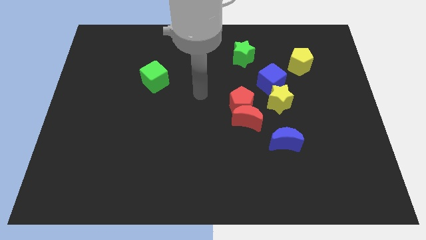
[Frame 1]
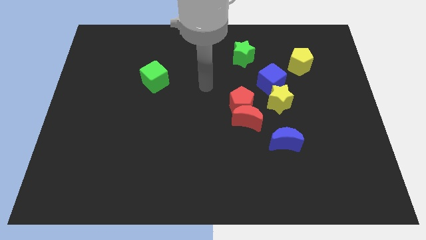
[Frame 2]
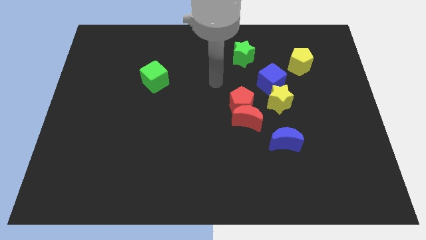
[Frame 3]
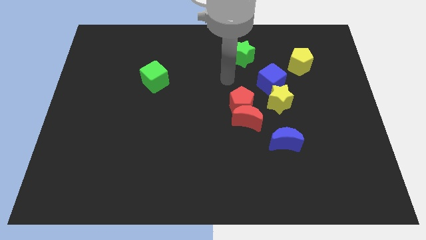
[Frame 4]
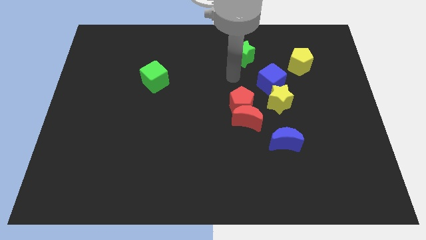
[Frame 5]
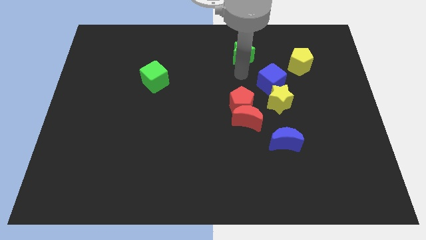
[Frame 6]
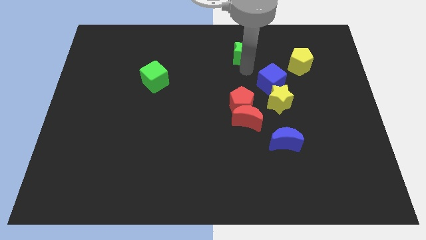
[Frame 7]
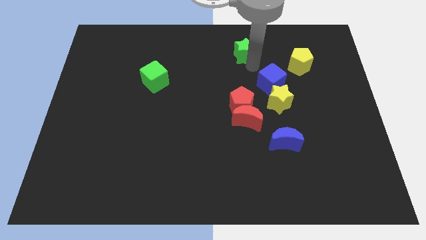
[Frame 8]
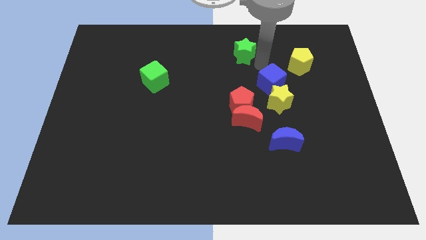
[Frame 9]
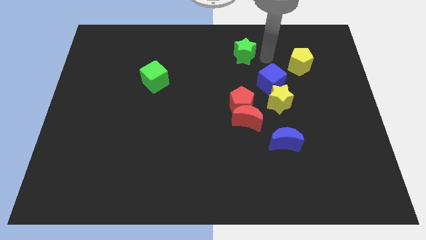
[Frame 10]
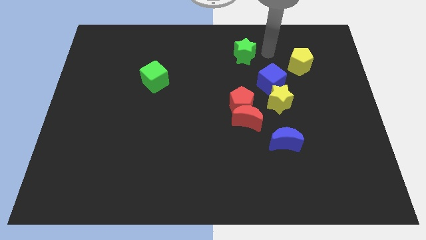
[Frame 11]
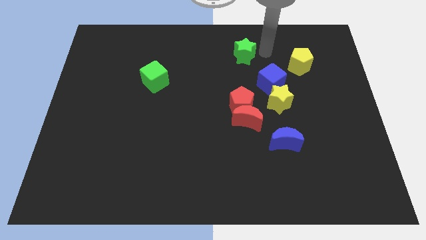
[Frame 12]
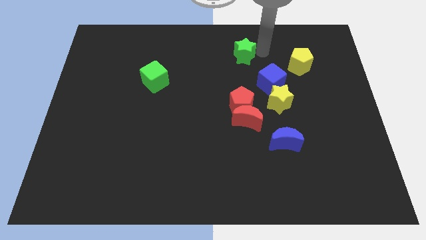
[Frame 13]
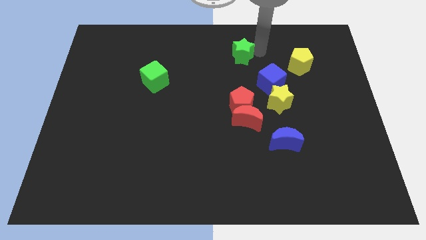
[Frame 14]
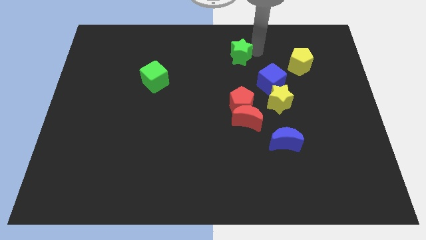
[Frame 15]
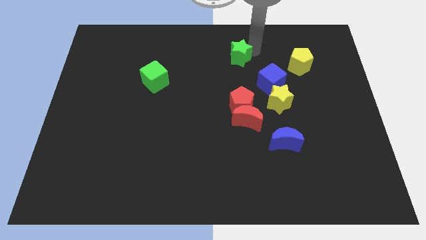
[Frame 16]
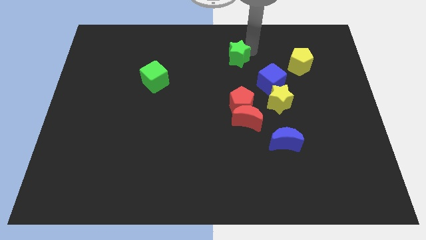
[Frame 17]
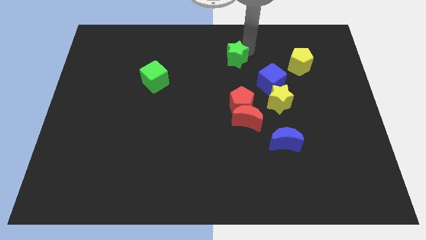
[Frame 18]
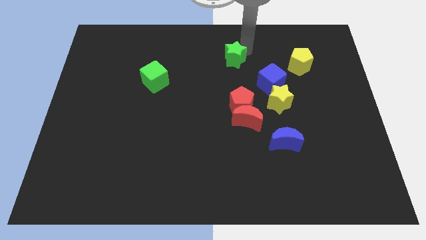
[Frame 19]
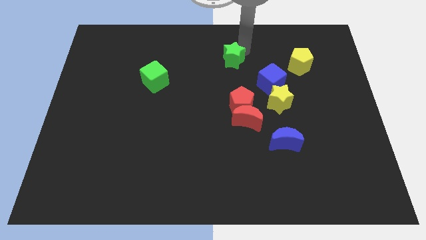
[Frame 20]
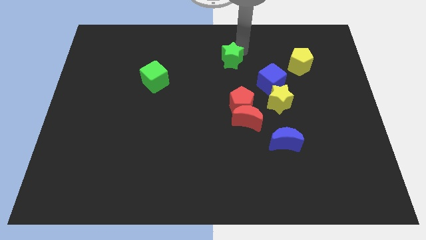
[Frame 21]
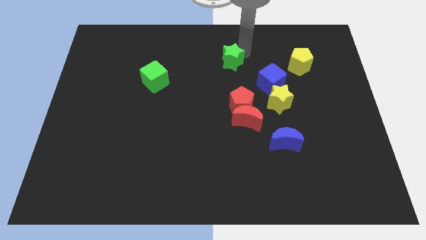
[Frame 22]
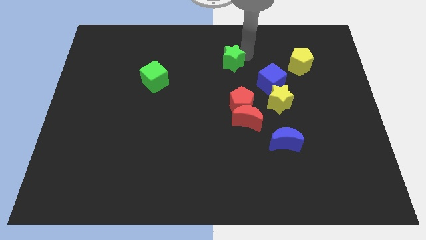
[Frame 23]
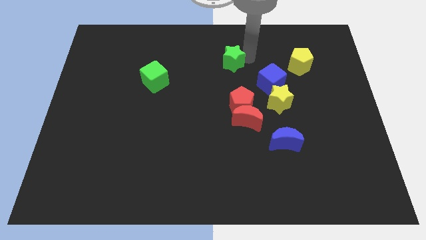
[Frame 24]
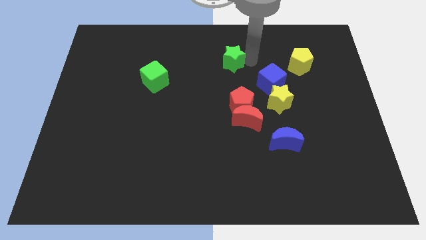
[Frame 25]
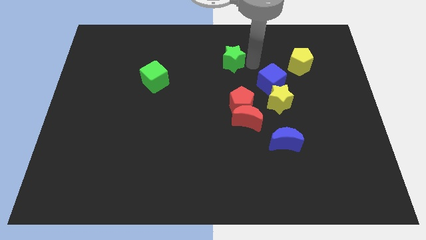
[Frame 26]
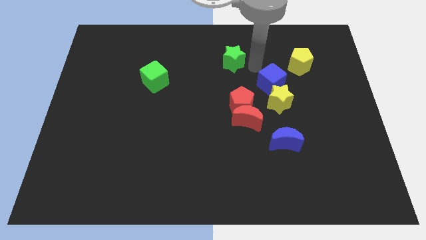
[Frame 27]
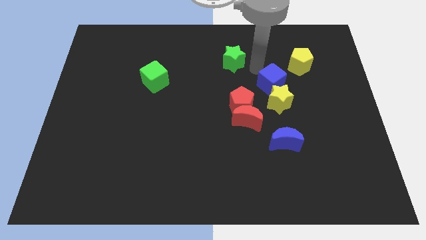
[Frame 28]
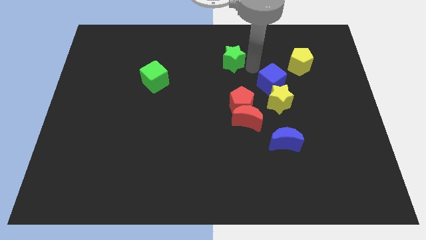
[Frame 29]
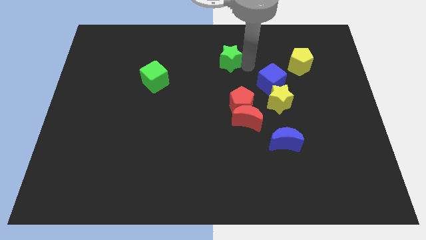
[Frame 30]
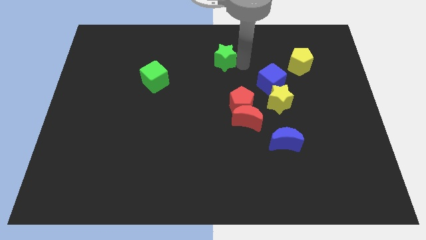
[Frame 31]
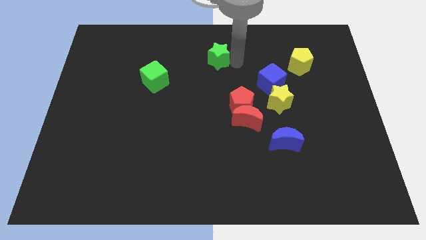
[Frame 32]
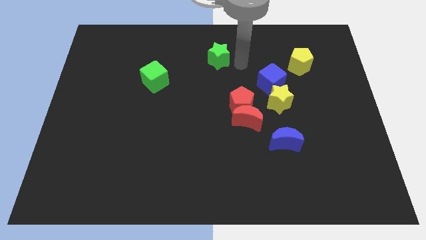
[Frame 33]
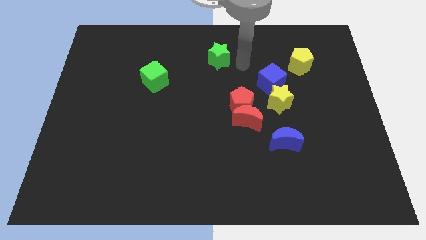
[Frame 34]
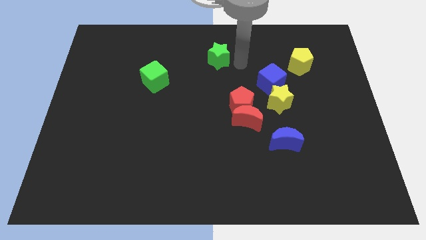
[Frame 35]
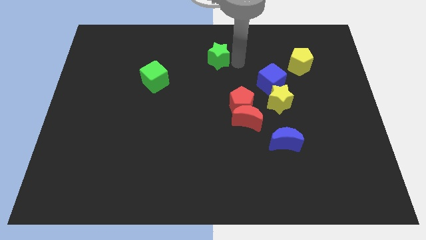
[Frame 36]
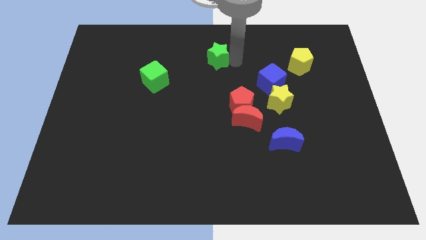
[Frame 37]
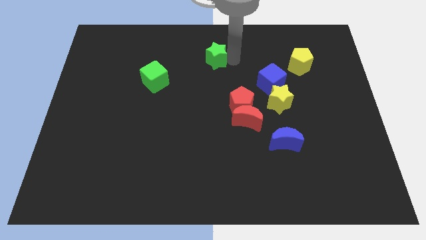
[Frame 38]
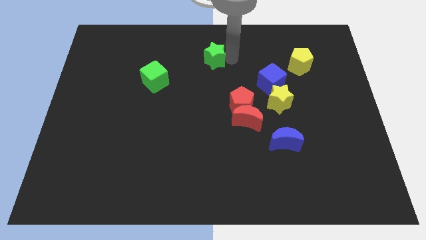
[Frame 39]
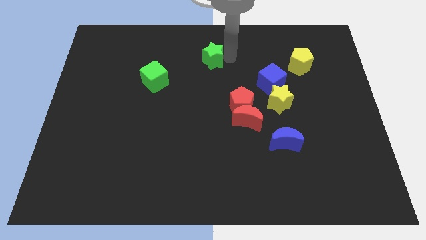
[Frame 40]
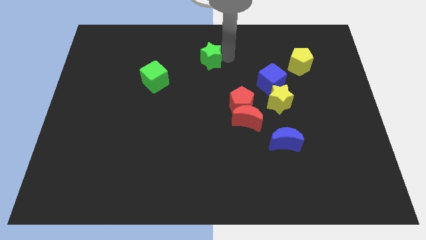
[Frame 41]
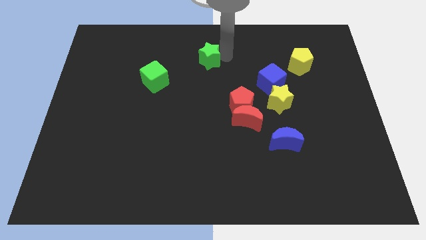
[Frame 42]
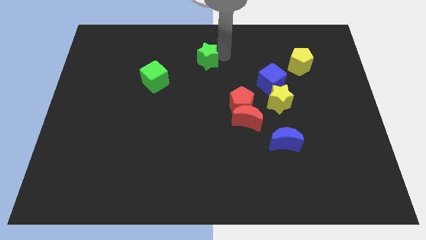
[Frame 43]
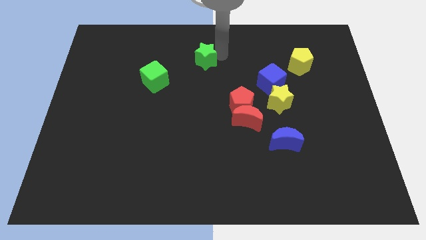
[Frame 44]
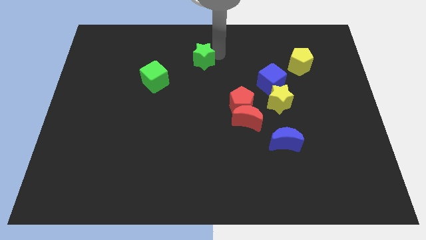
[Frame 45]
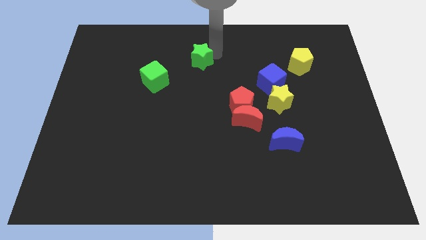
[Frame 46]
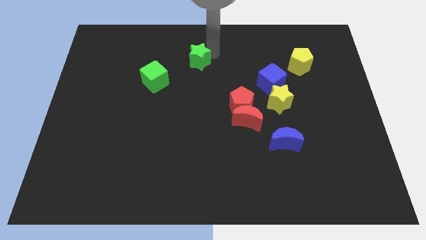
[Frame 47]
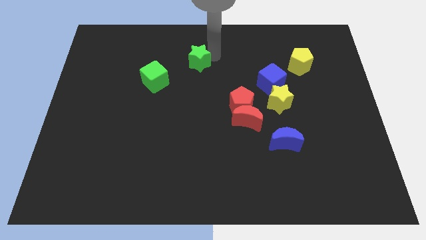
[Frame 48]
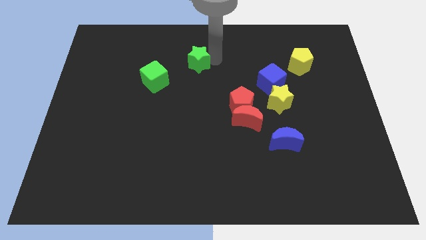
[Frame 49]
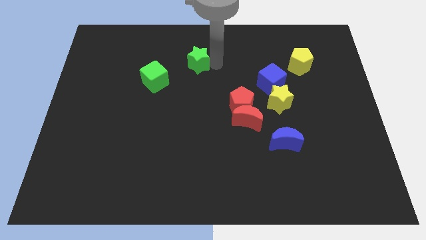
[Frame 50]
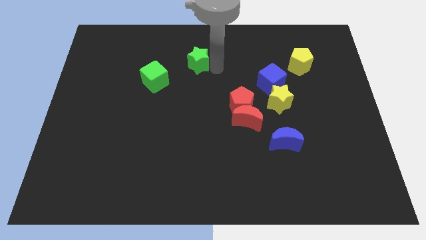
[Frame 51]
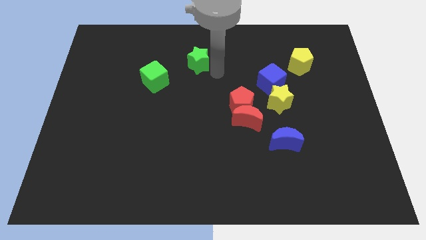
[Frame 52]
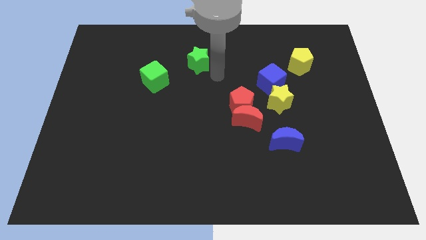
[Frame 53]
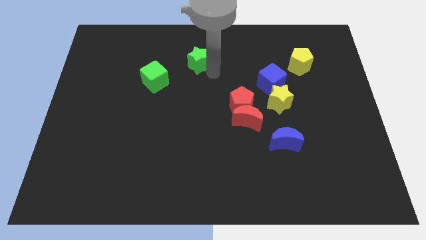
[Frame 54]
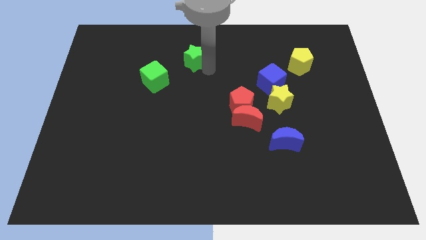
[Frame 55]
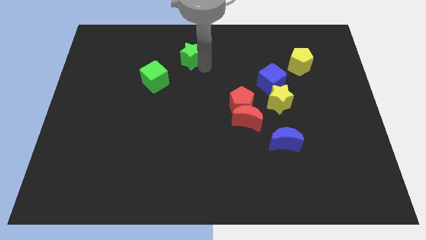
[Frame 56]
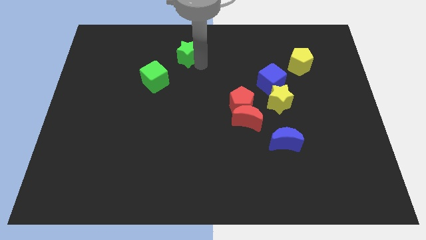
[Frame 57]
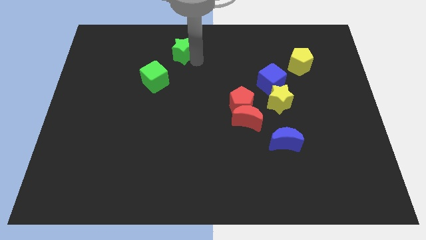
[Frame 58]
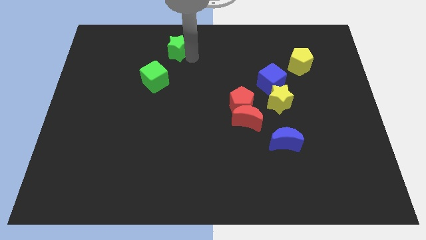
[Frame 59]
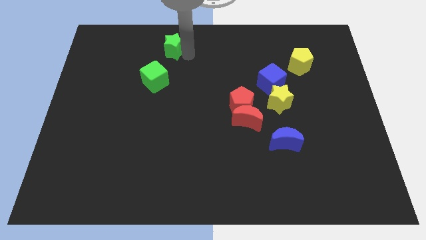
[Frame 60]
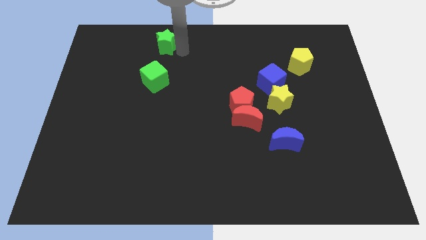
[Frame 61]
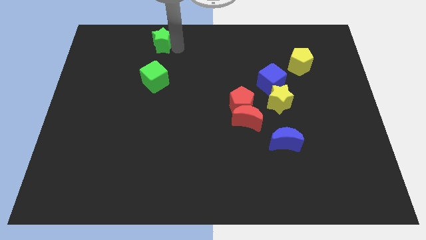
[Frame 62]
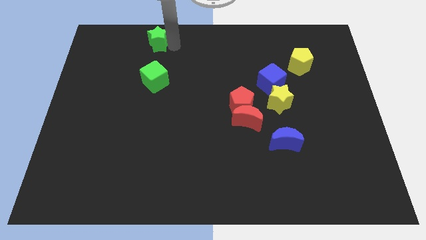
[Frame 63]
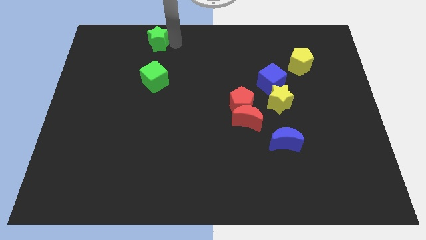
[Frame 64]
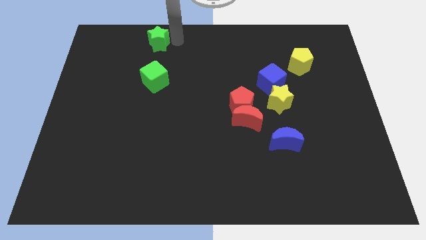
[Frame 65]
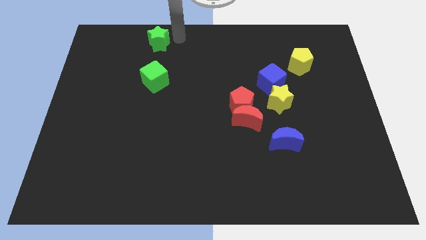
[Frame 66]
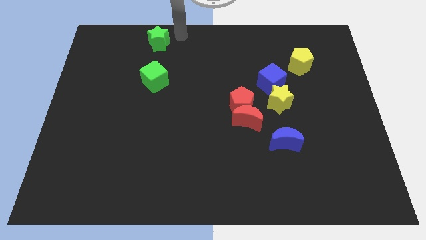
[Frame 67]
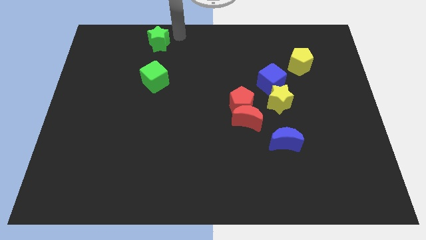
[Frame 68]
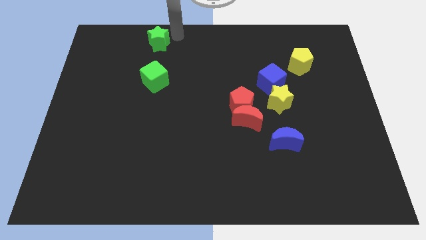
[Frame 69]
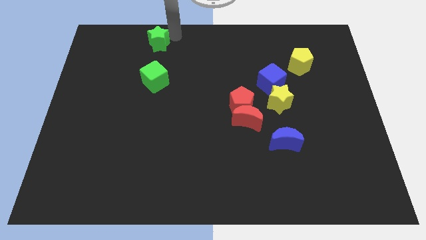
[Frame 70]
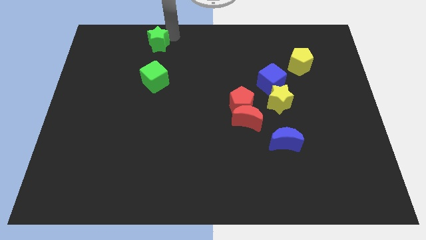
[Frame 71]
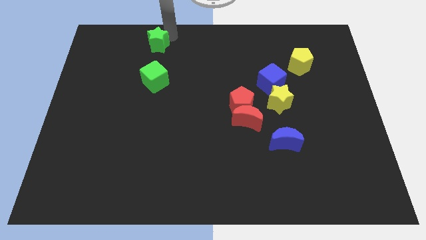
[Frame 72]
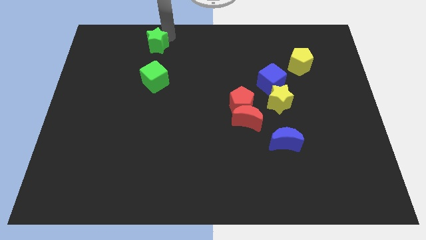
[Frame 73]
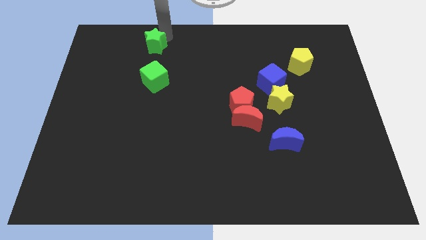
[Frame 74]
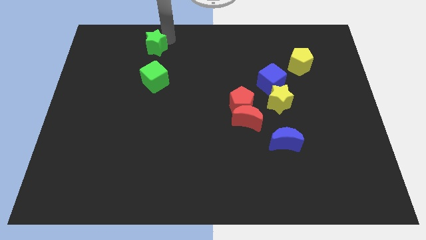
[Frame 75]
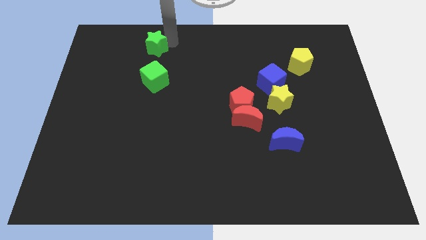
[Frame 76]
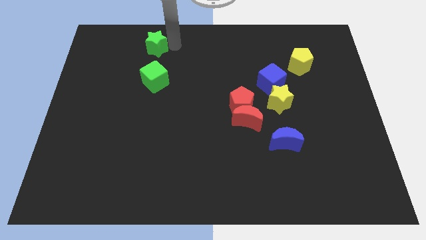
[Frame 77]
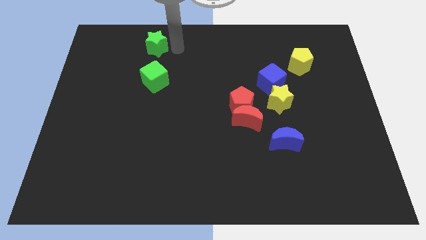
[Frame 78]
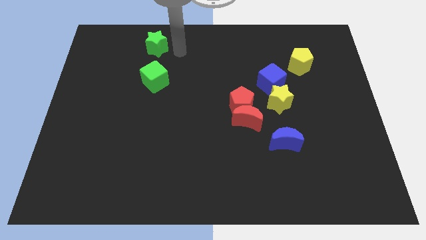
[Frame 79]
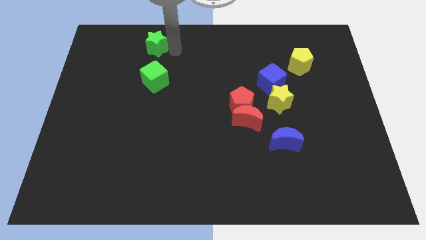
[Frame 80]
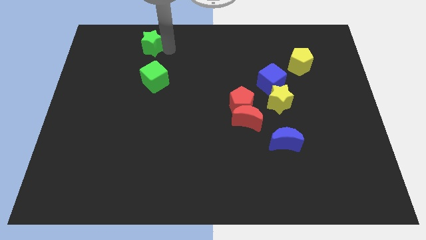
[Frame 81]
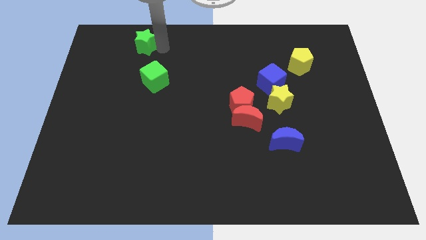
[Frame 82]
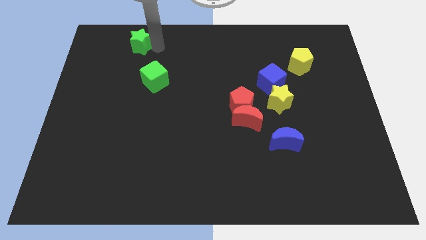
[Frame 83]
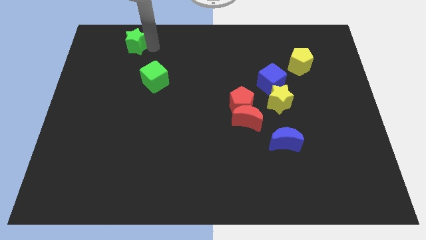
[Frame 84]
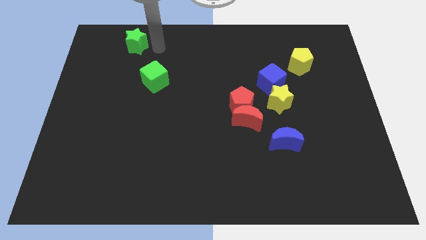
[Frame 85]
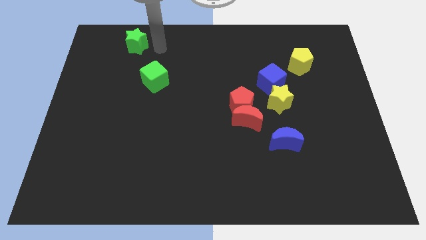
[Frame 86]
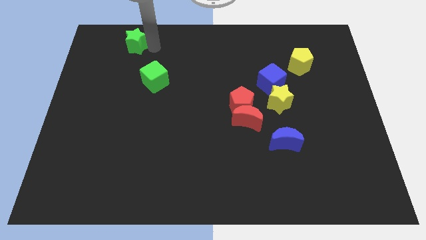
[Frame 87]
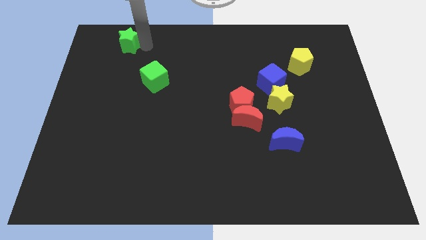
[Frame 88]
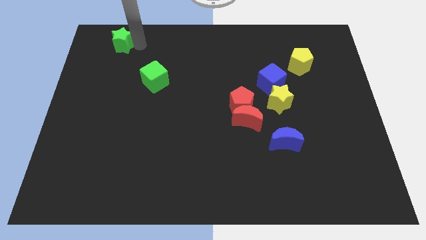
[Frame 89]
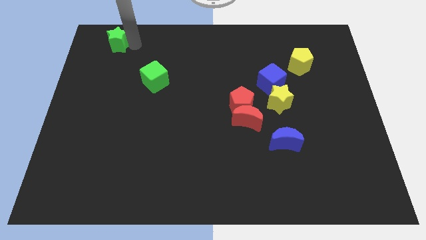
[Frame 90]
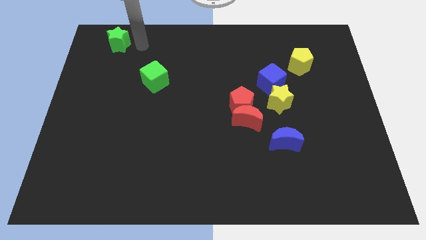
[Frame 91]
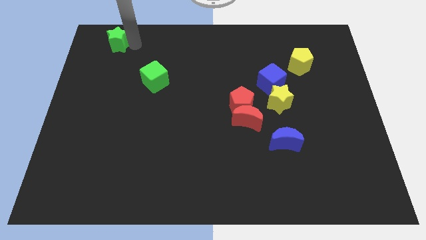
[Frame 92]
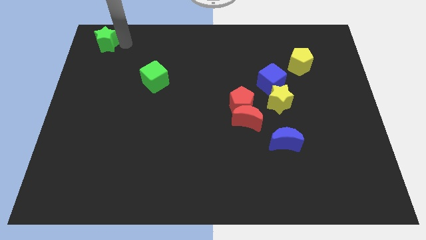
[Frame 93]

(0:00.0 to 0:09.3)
slide the green star to the upper left corner
